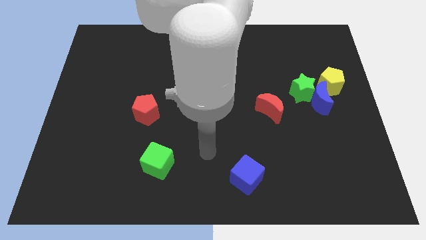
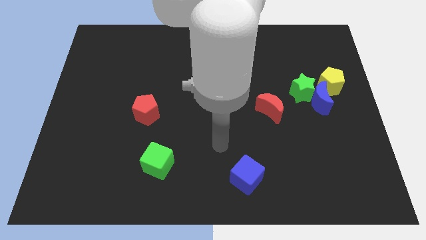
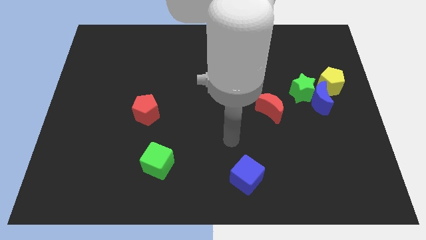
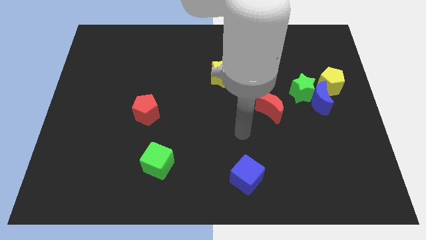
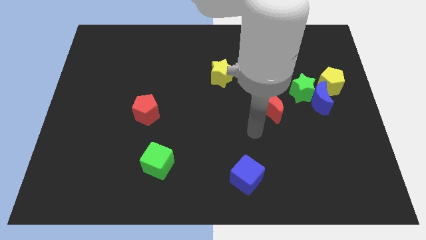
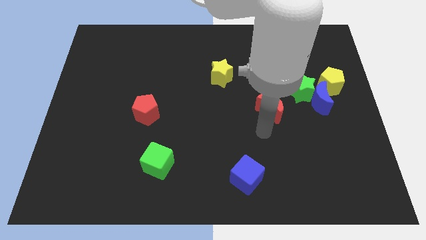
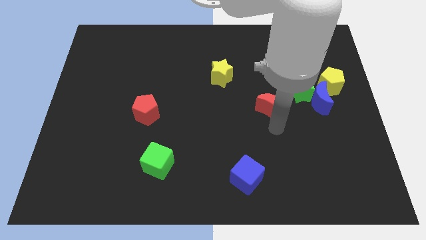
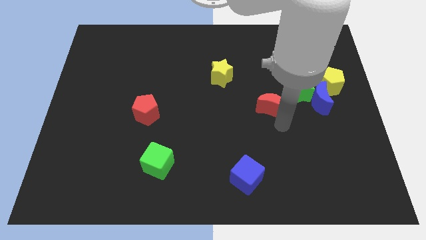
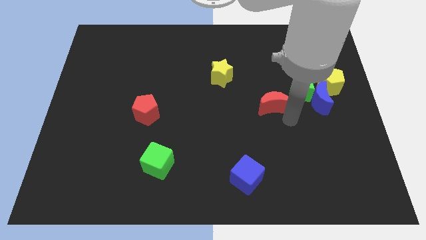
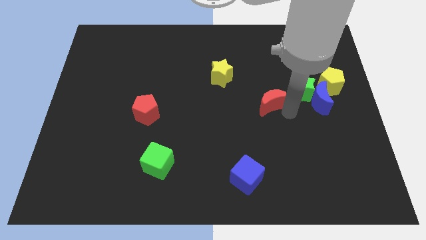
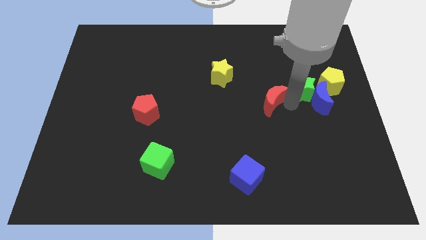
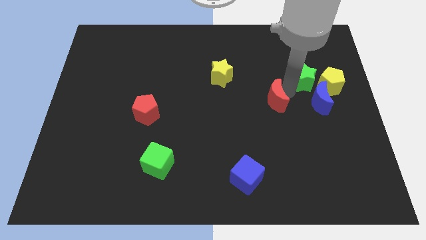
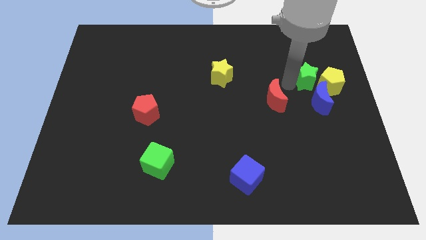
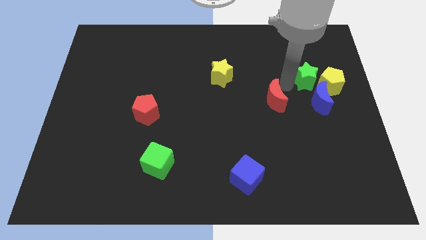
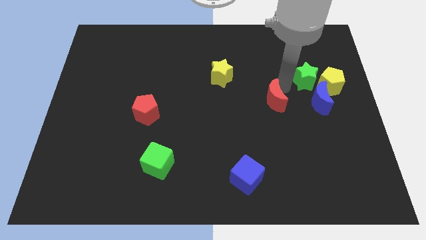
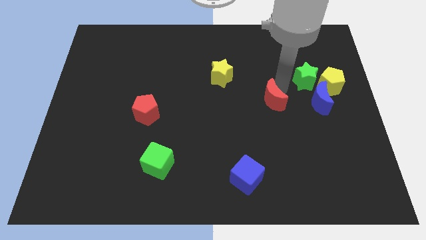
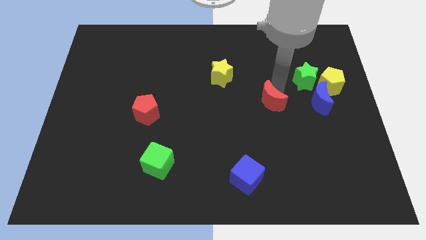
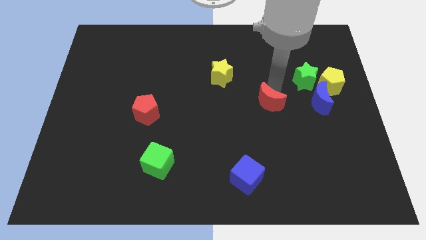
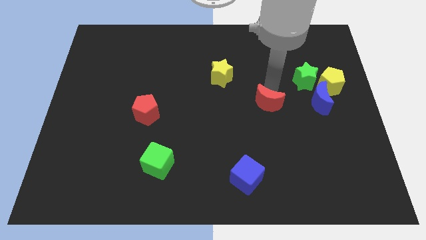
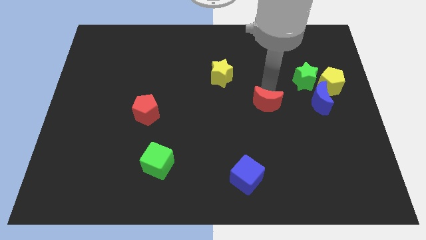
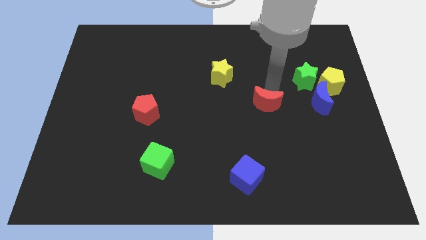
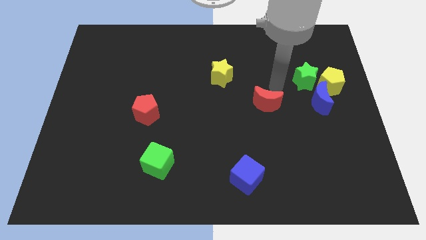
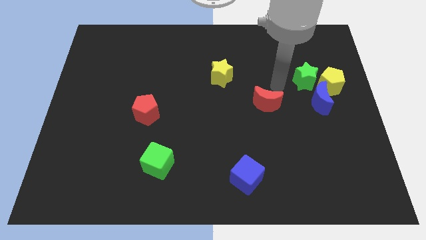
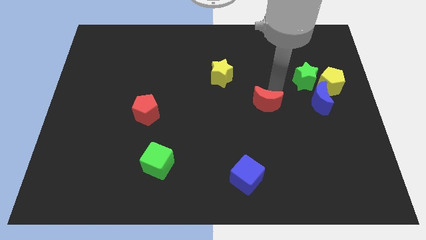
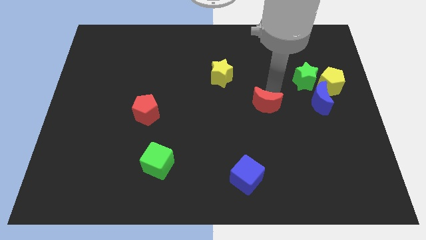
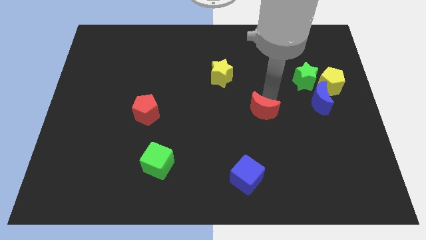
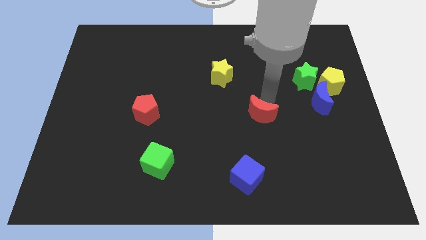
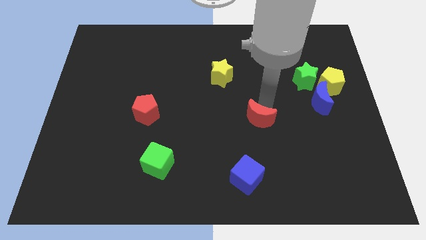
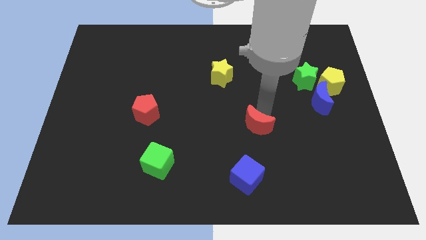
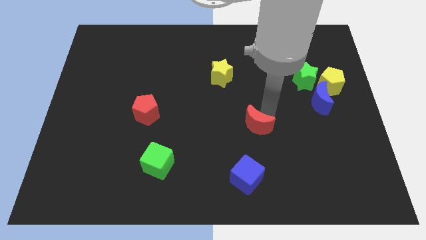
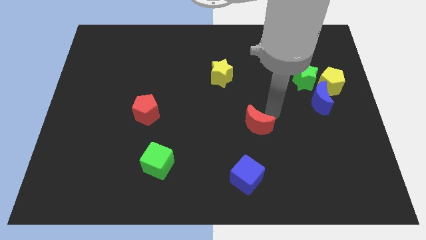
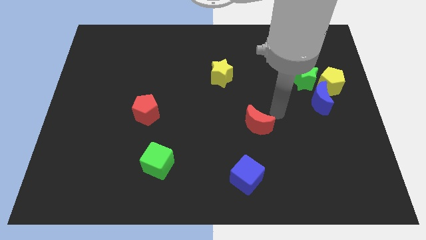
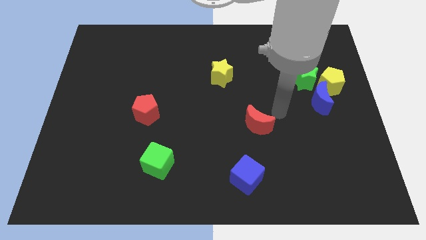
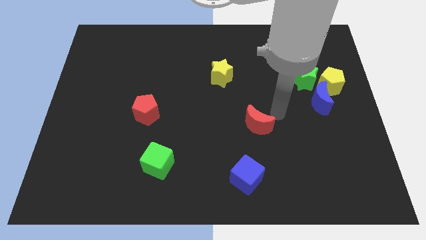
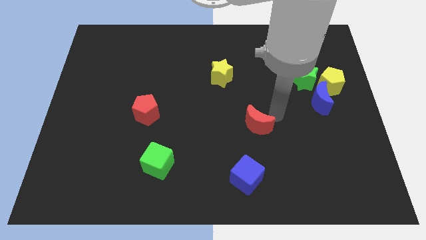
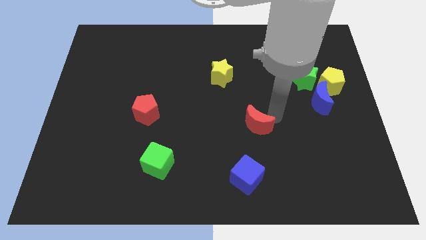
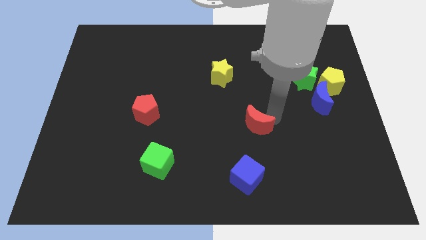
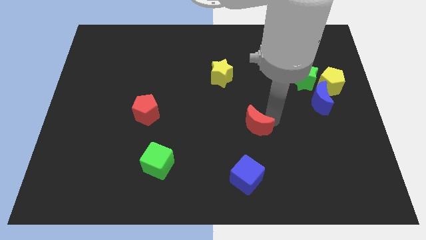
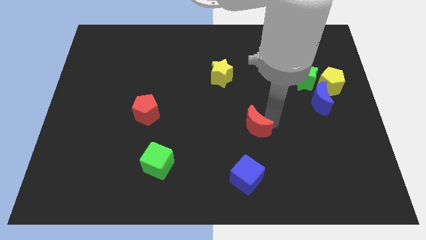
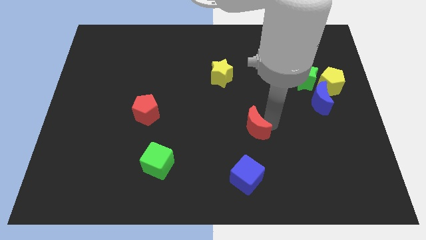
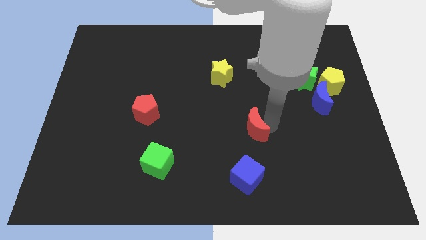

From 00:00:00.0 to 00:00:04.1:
slide the red moon a little diagonally down and left

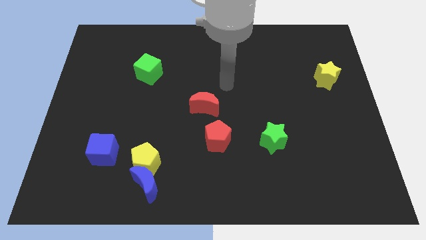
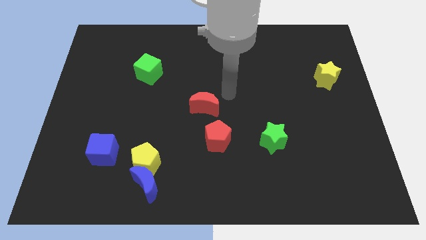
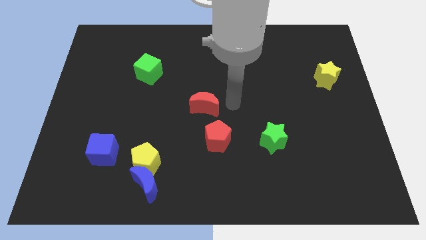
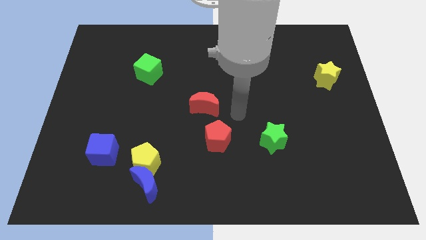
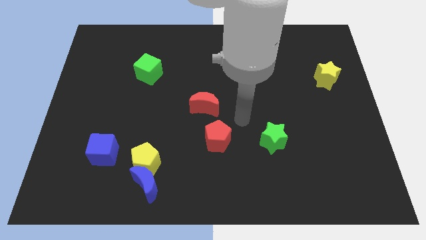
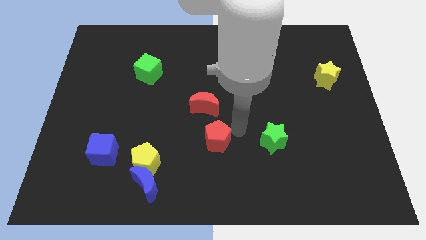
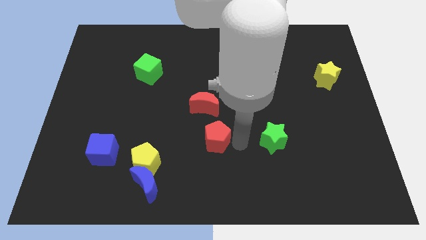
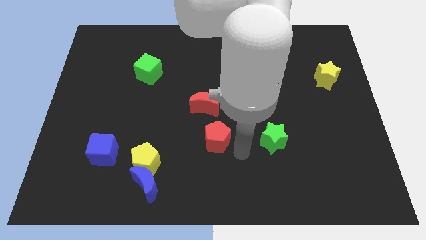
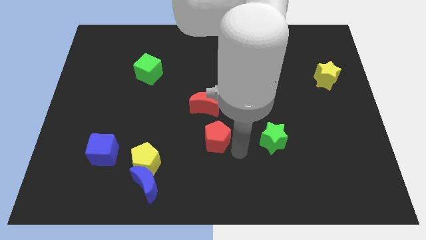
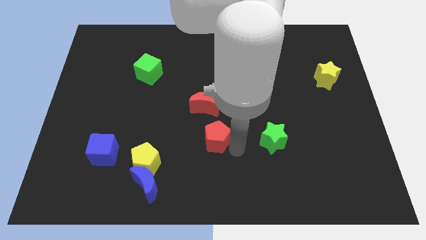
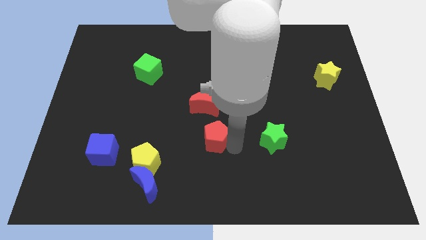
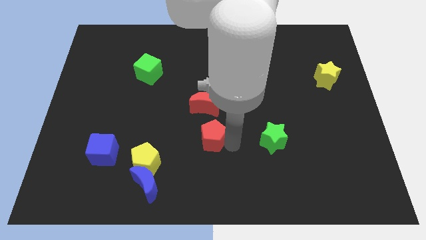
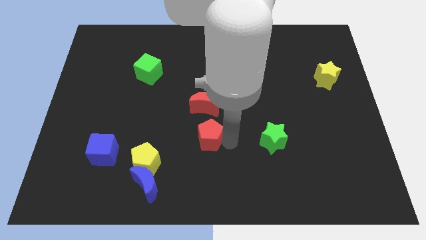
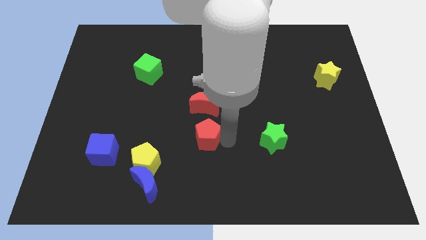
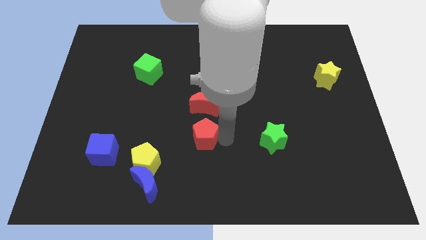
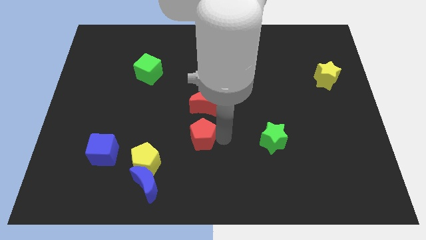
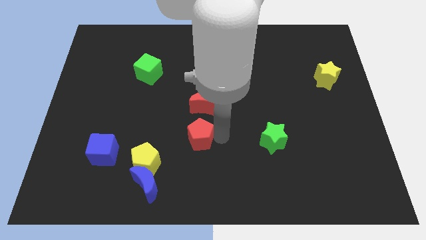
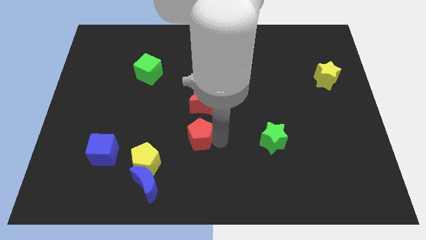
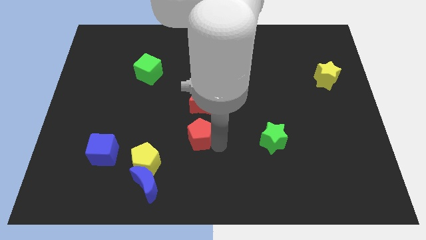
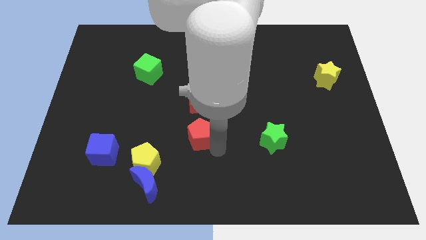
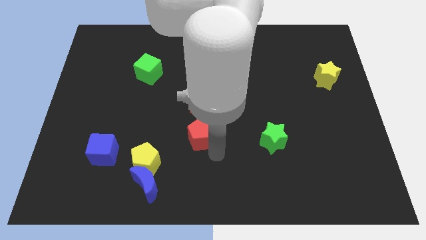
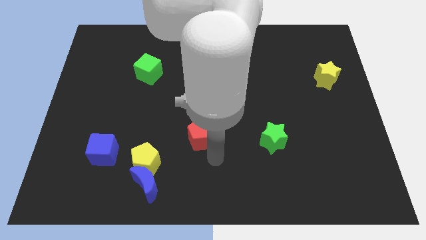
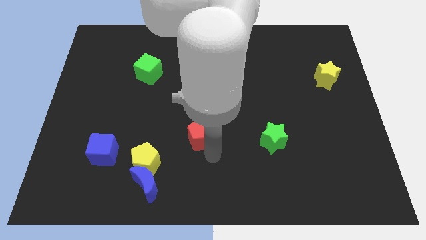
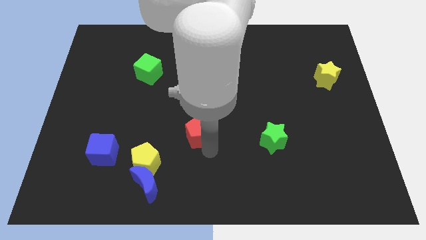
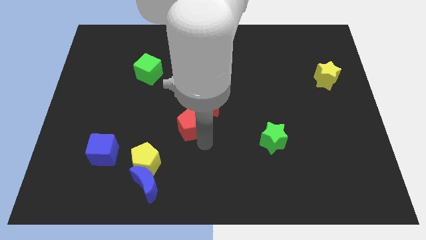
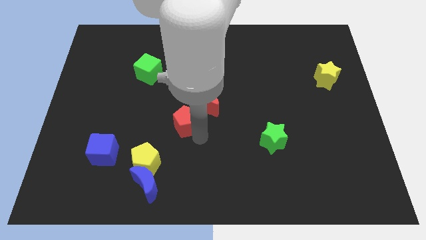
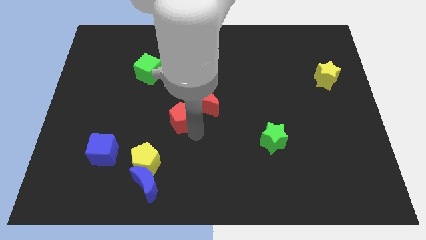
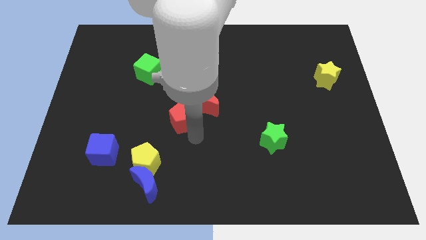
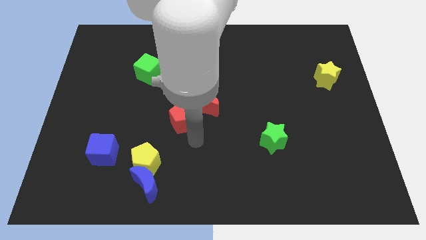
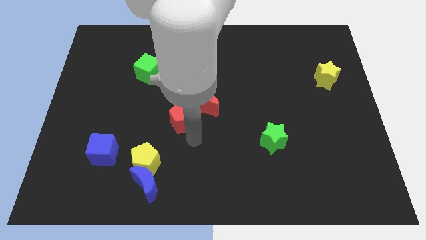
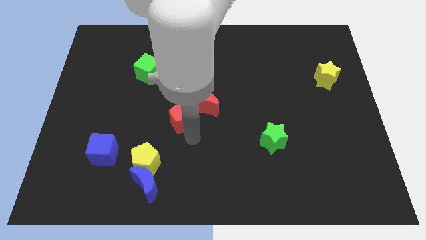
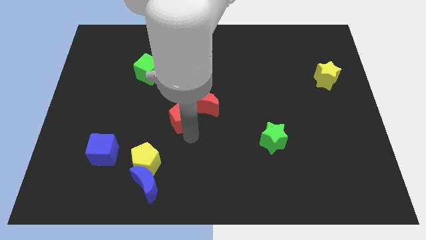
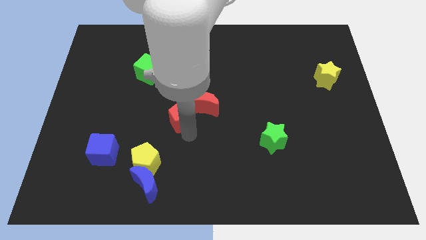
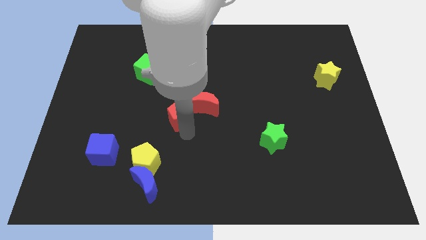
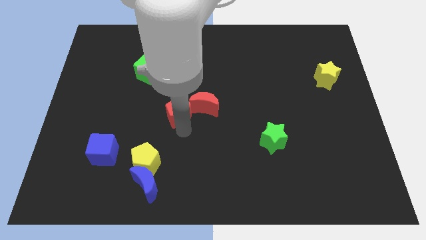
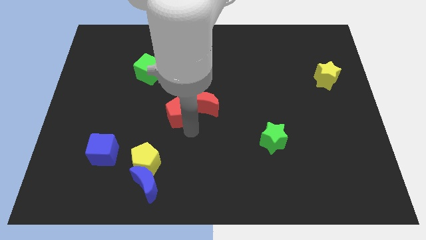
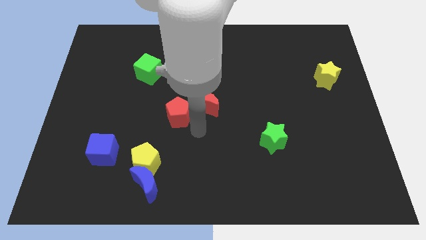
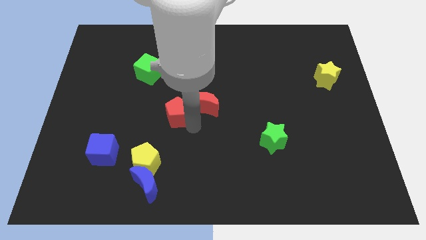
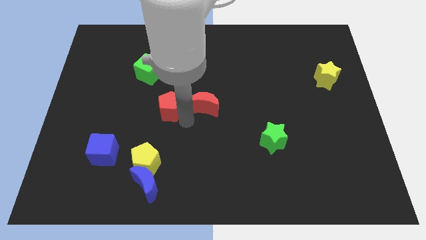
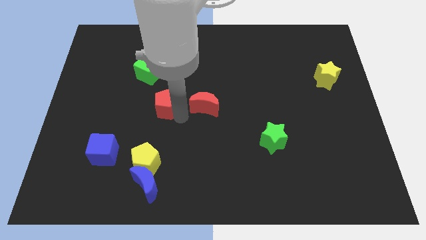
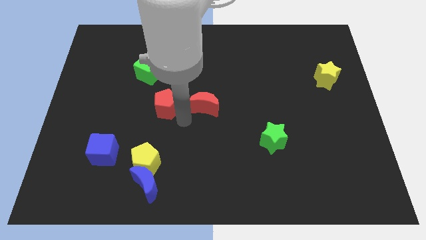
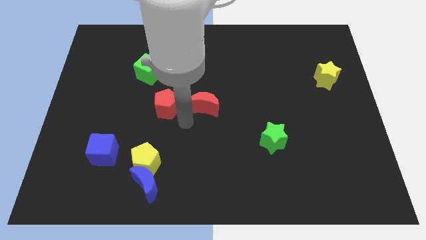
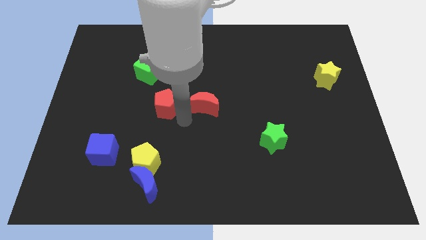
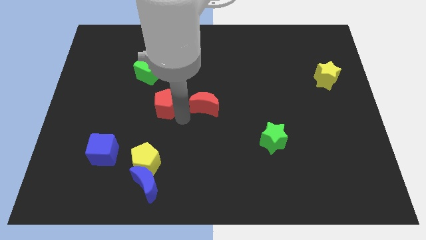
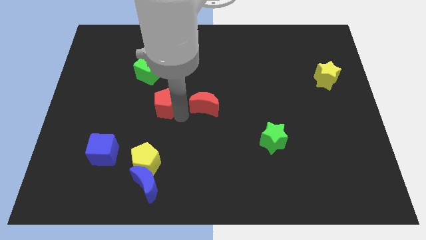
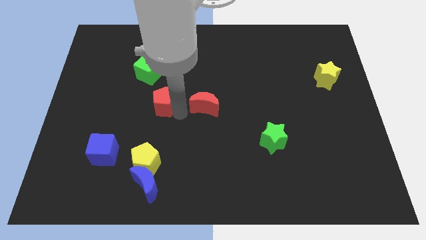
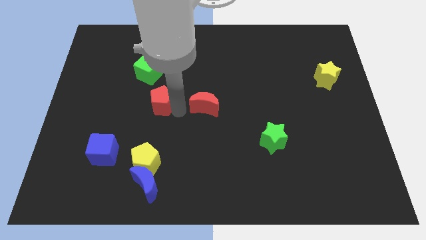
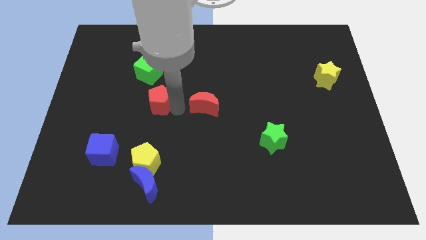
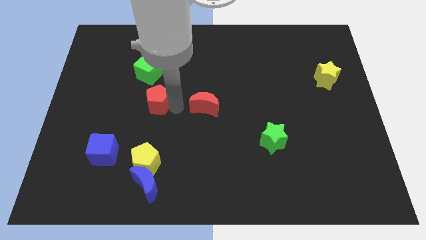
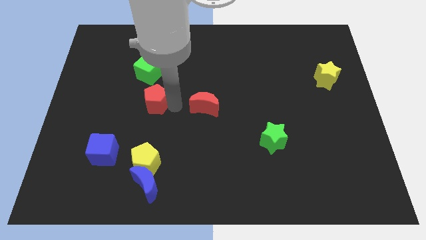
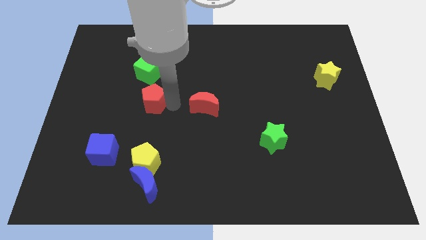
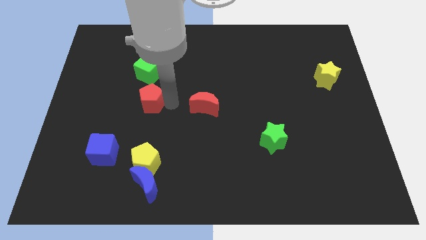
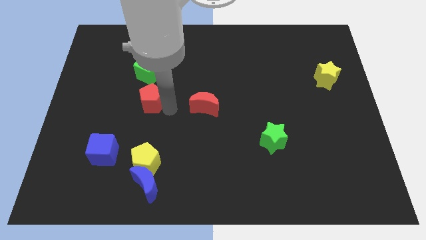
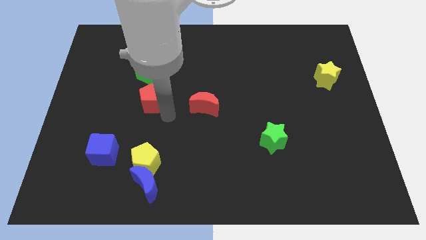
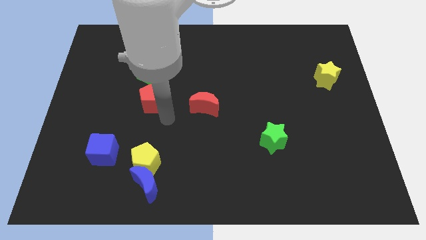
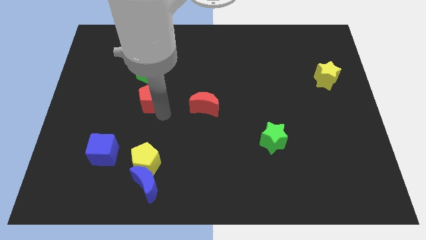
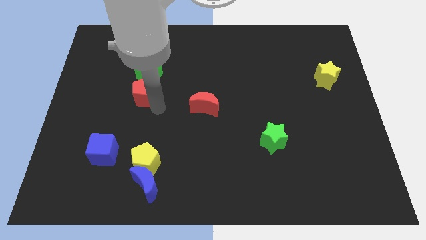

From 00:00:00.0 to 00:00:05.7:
move the red pentagon up and then left
